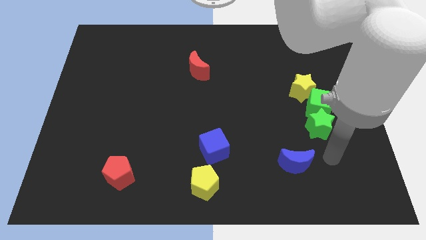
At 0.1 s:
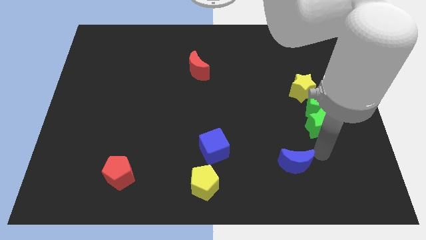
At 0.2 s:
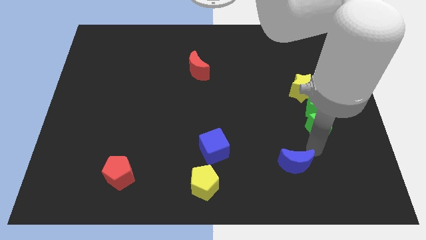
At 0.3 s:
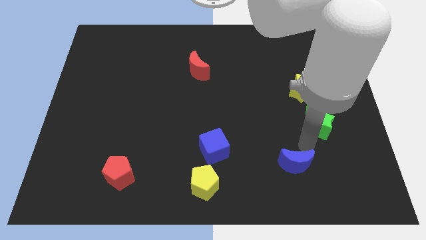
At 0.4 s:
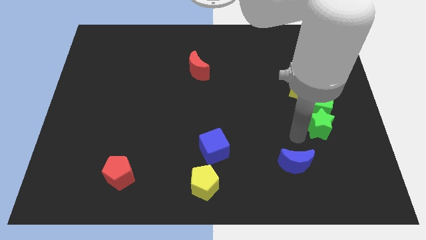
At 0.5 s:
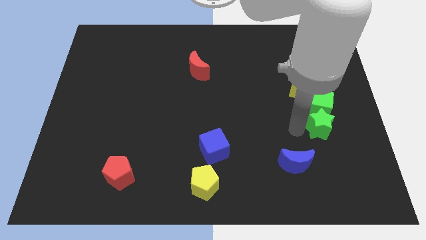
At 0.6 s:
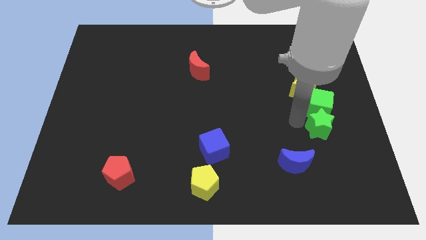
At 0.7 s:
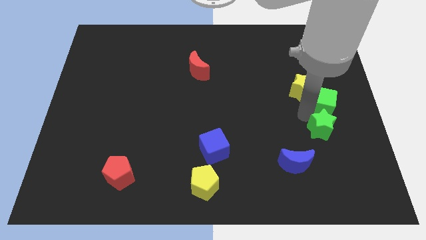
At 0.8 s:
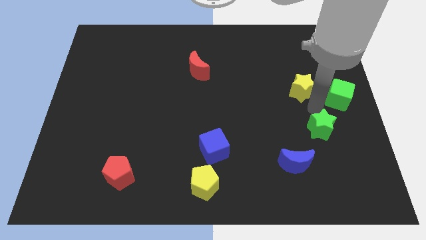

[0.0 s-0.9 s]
move the green star away from the green cube

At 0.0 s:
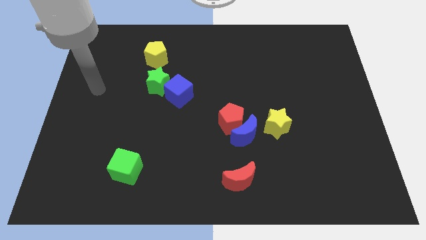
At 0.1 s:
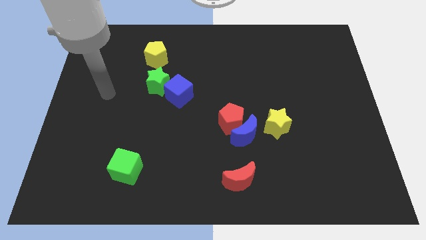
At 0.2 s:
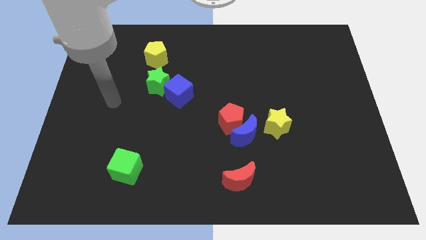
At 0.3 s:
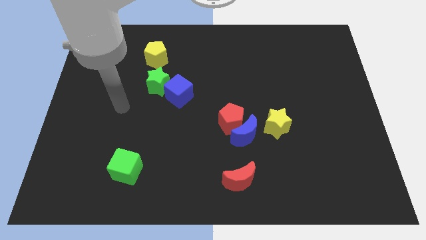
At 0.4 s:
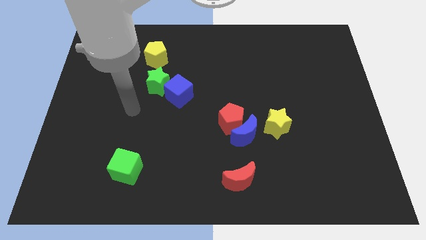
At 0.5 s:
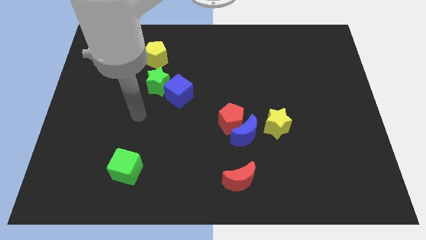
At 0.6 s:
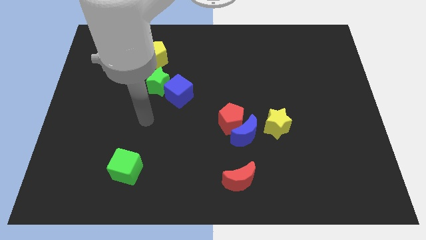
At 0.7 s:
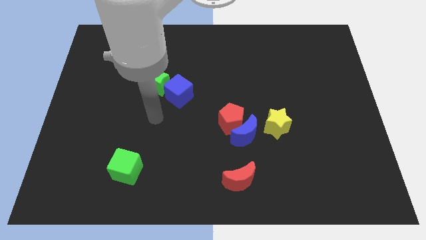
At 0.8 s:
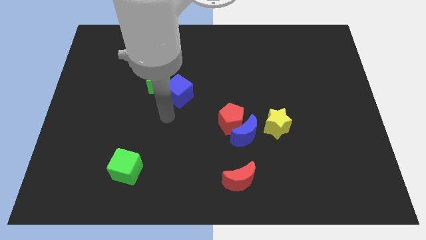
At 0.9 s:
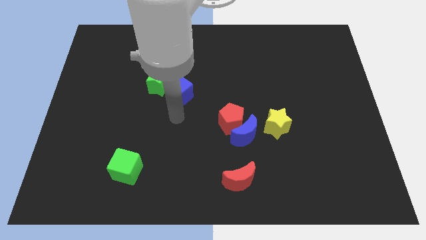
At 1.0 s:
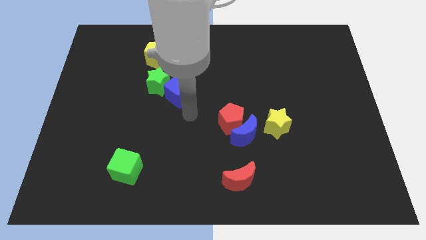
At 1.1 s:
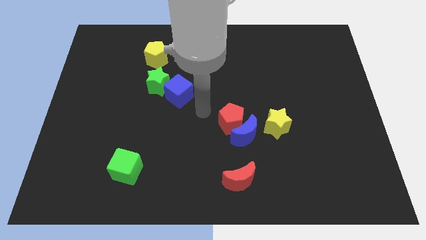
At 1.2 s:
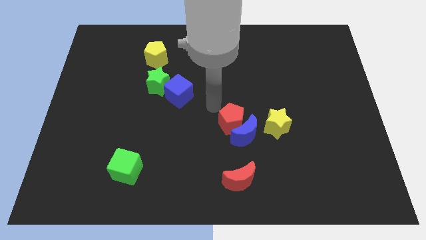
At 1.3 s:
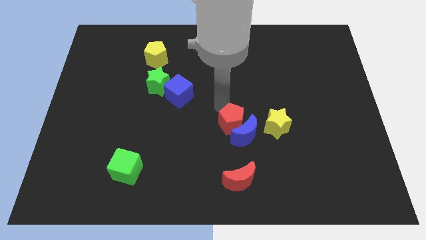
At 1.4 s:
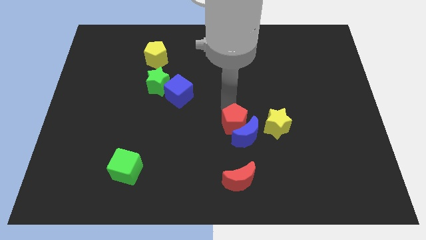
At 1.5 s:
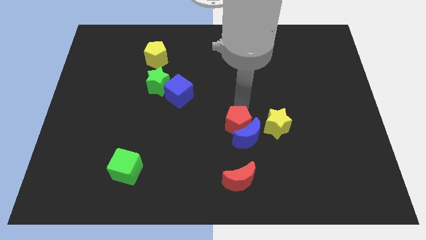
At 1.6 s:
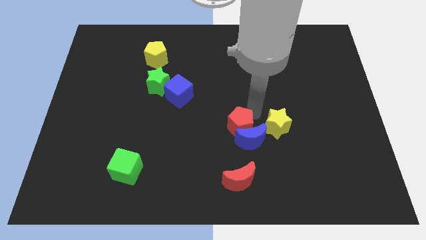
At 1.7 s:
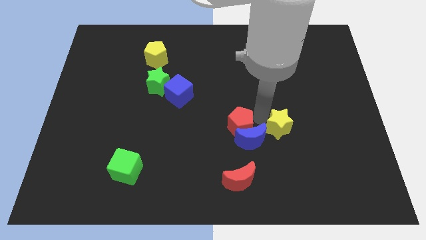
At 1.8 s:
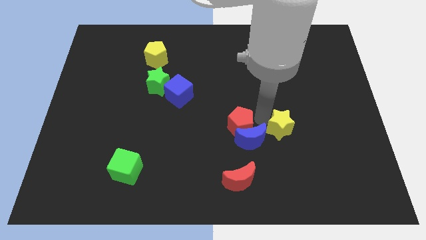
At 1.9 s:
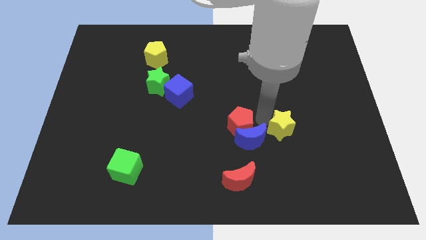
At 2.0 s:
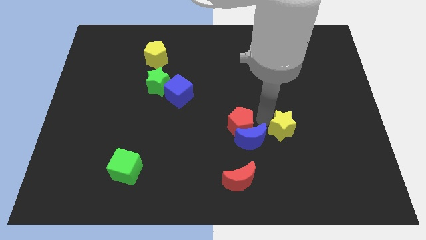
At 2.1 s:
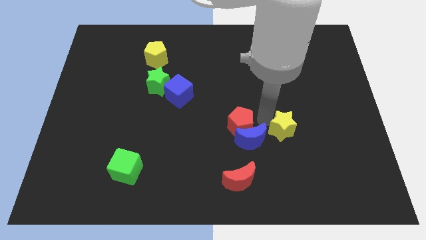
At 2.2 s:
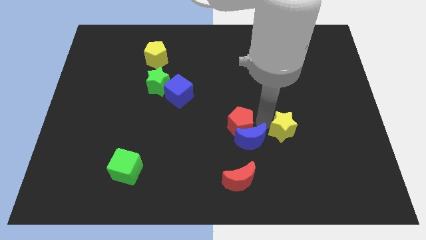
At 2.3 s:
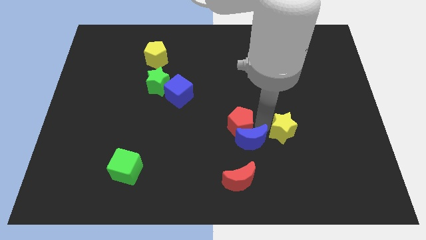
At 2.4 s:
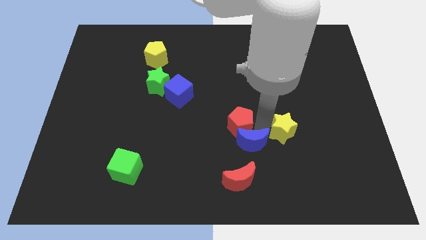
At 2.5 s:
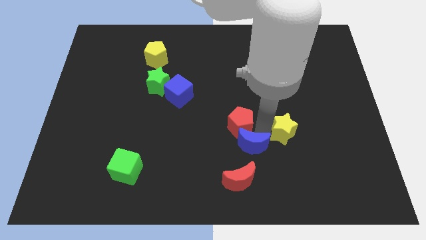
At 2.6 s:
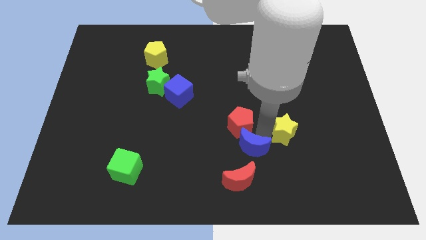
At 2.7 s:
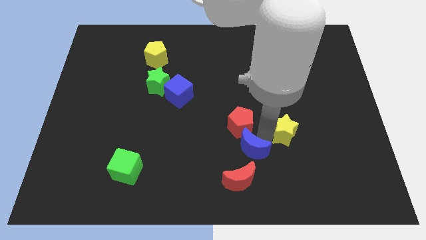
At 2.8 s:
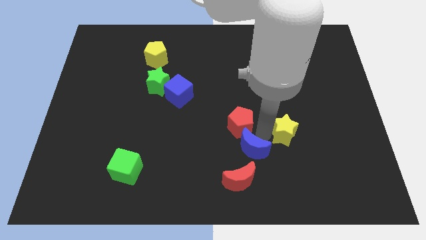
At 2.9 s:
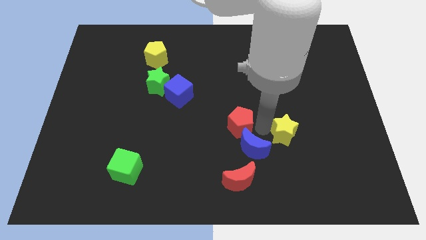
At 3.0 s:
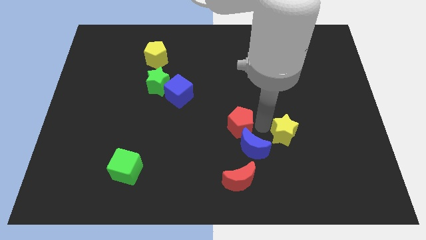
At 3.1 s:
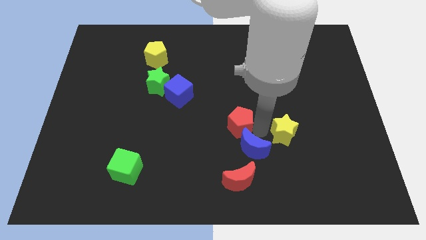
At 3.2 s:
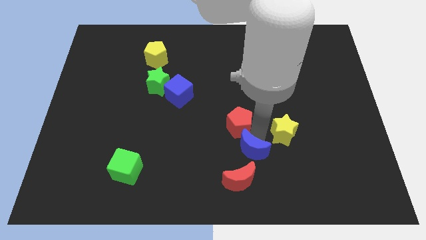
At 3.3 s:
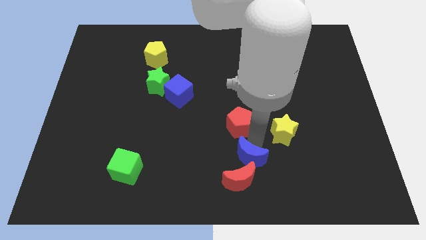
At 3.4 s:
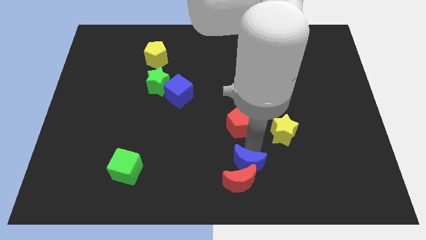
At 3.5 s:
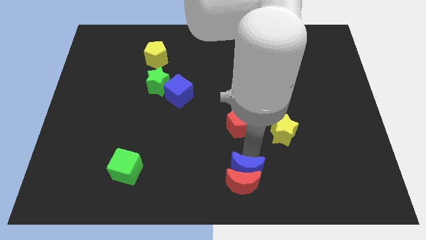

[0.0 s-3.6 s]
move the blue moon away from the red pentagon and yellow star

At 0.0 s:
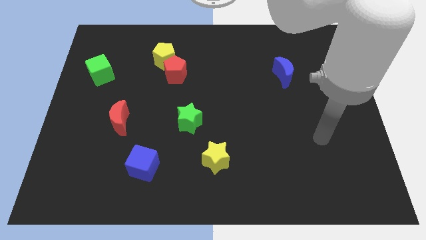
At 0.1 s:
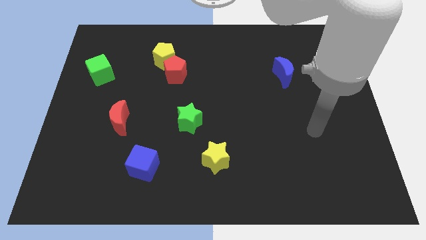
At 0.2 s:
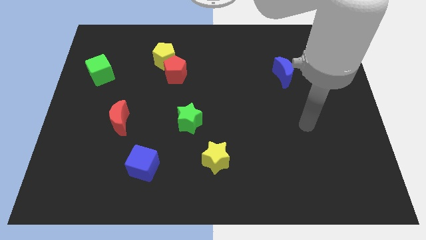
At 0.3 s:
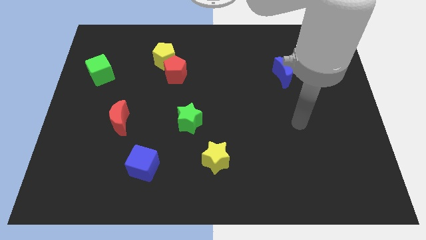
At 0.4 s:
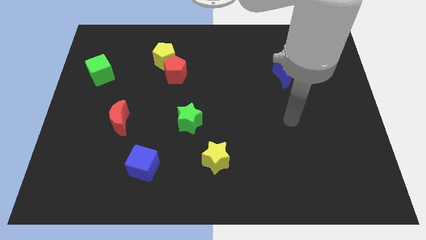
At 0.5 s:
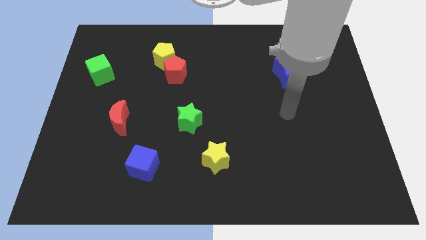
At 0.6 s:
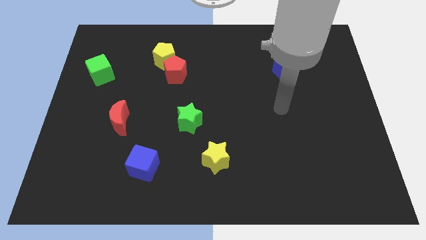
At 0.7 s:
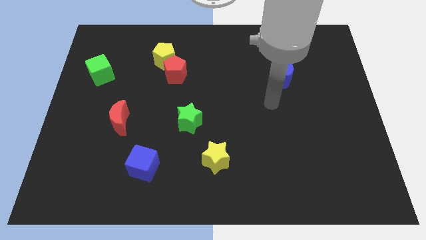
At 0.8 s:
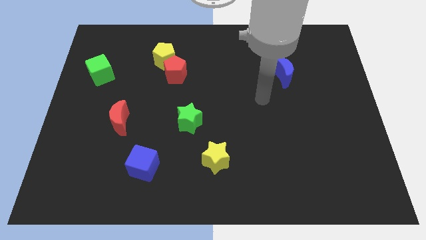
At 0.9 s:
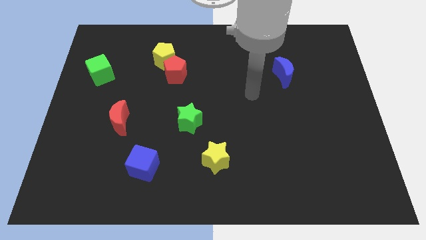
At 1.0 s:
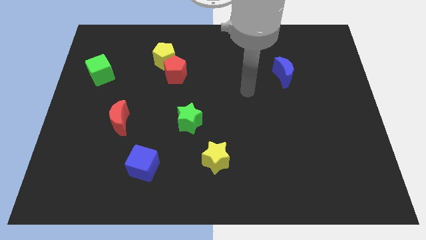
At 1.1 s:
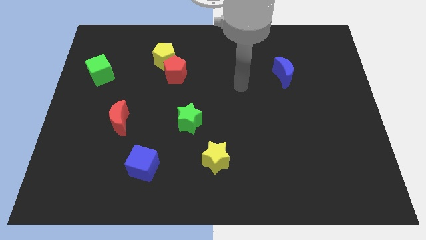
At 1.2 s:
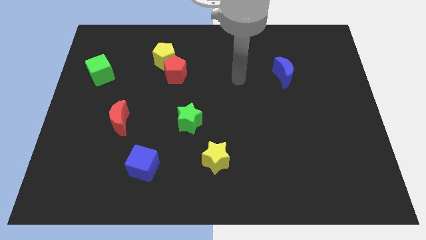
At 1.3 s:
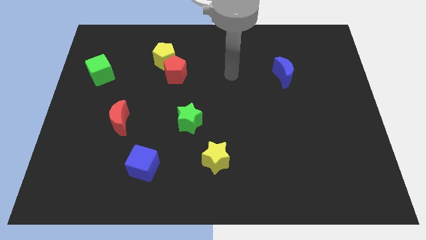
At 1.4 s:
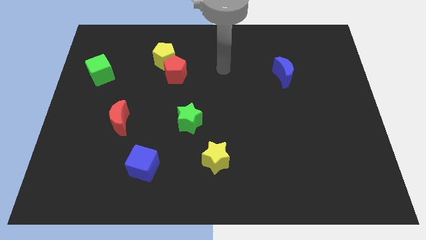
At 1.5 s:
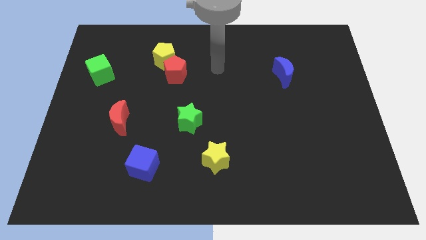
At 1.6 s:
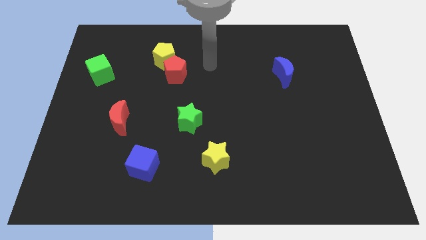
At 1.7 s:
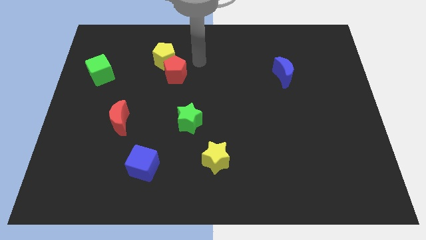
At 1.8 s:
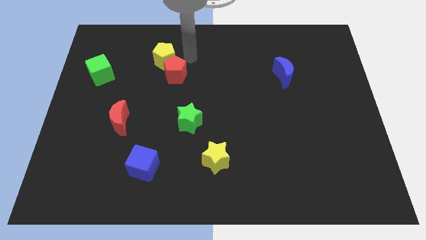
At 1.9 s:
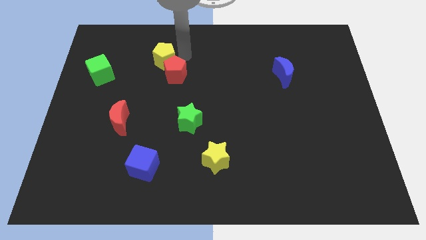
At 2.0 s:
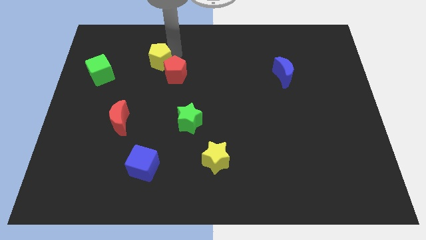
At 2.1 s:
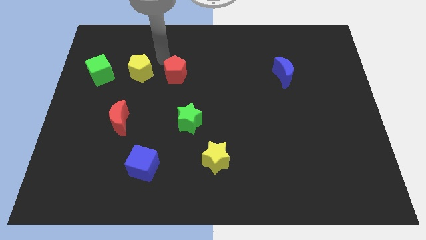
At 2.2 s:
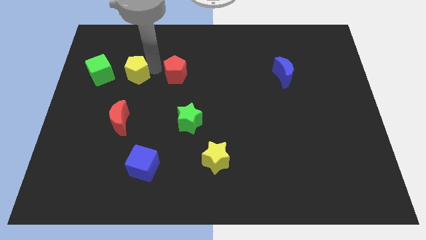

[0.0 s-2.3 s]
move the red pentagon away from the yellow pentagon

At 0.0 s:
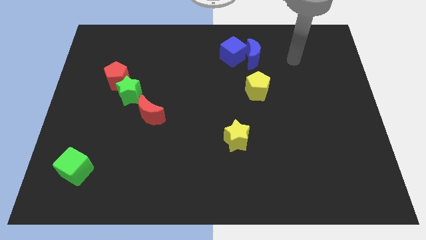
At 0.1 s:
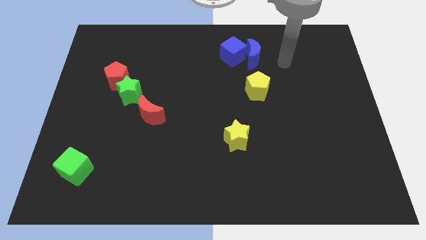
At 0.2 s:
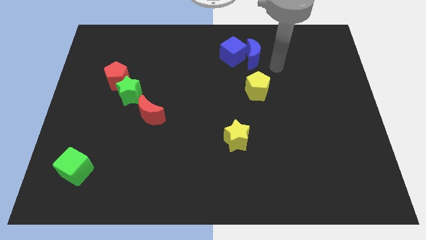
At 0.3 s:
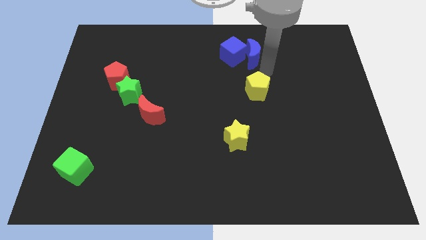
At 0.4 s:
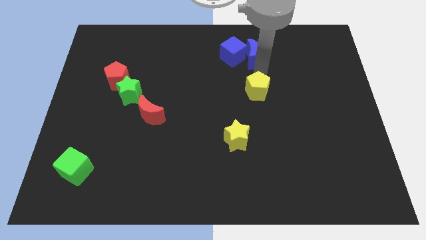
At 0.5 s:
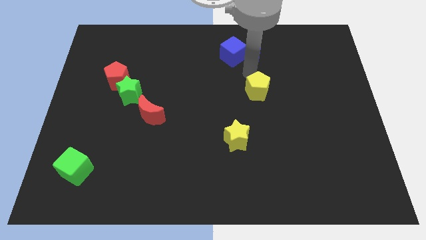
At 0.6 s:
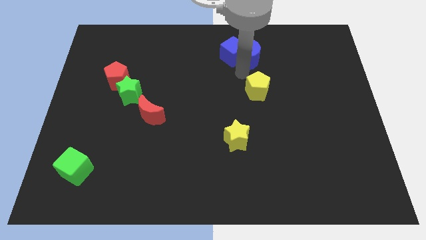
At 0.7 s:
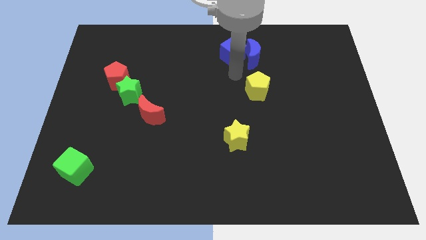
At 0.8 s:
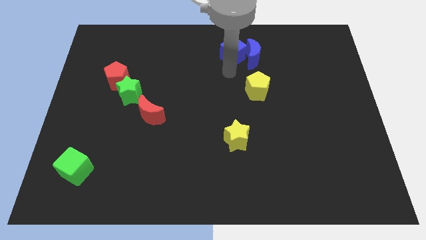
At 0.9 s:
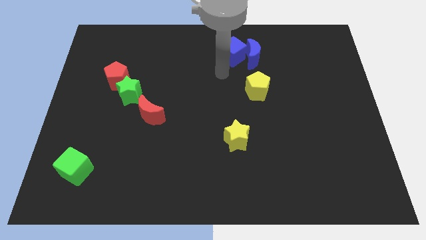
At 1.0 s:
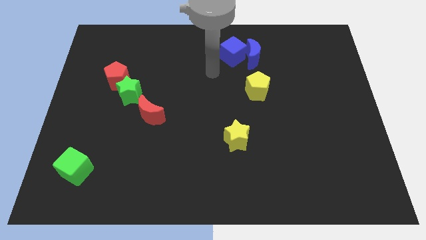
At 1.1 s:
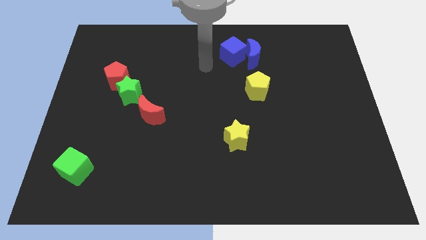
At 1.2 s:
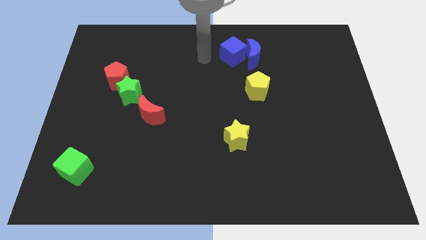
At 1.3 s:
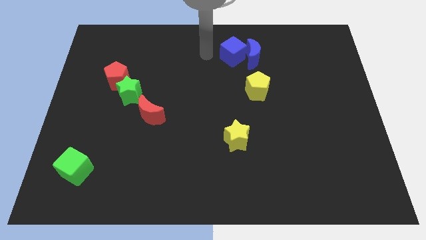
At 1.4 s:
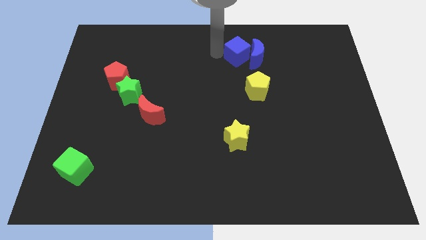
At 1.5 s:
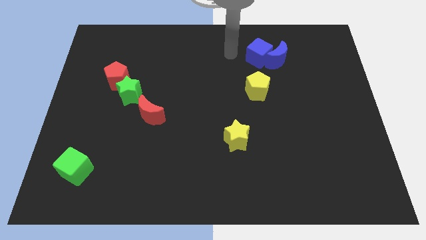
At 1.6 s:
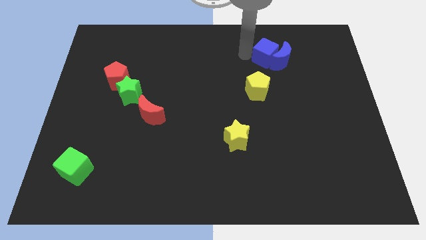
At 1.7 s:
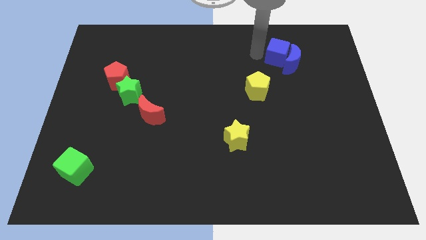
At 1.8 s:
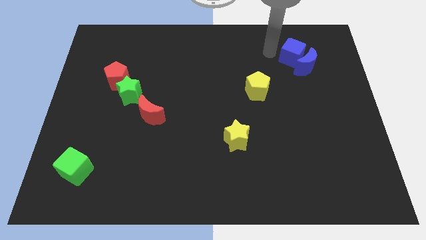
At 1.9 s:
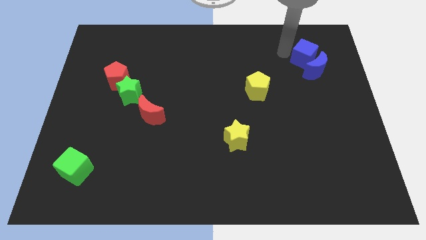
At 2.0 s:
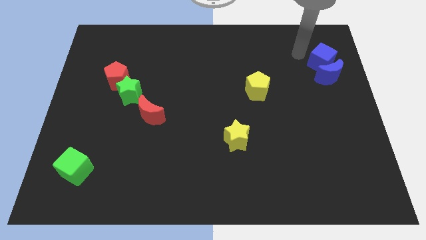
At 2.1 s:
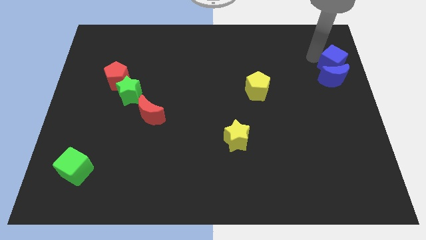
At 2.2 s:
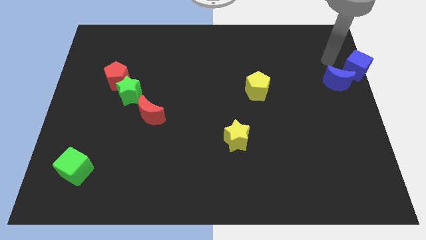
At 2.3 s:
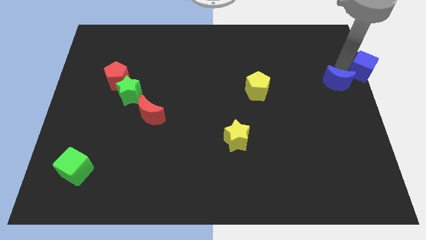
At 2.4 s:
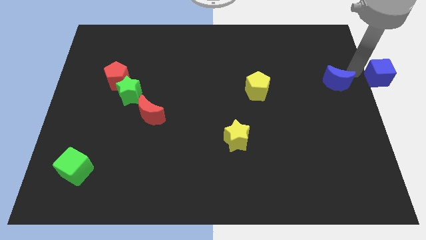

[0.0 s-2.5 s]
pull the blue moon apart from the blue cube
